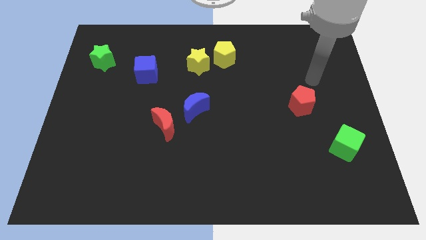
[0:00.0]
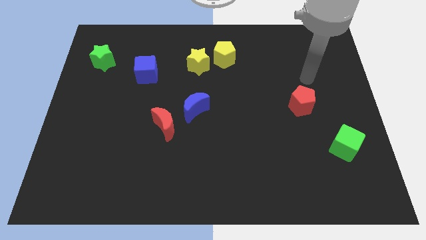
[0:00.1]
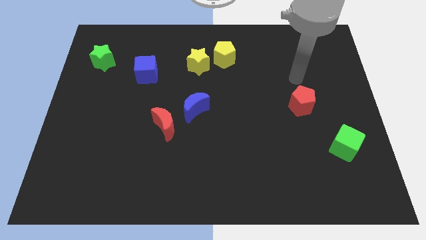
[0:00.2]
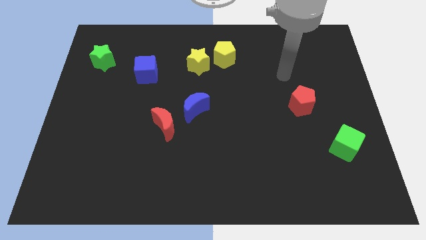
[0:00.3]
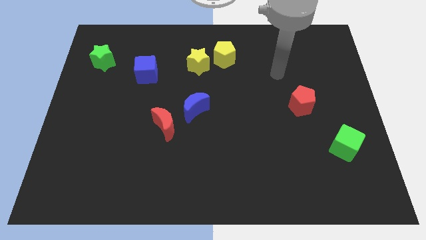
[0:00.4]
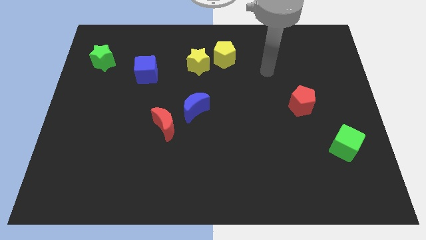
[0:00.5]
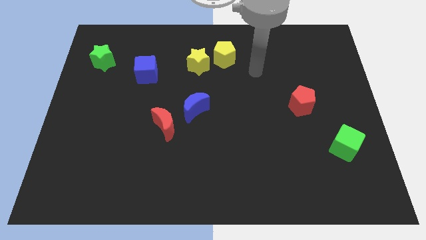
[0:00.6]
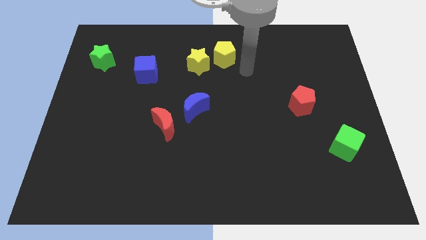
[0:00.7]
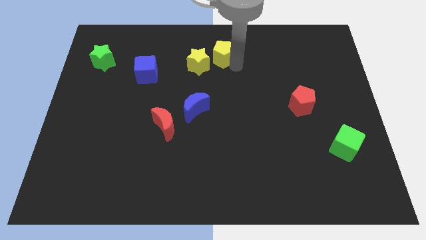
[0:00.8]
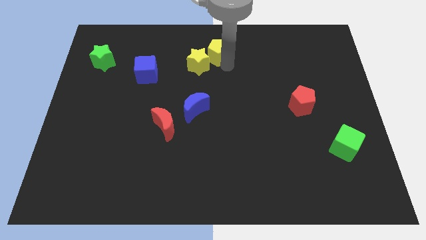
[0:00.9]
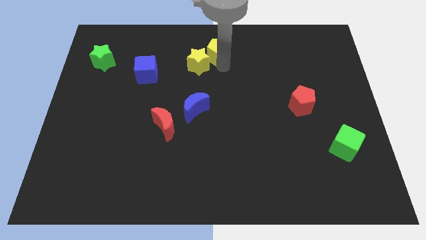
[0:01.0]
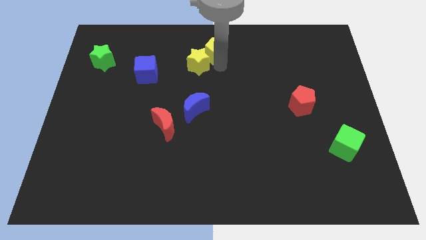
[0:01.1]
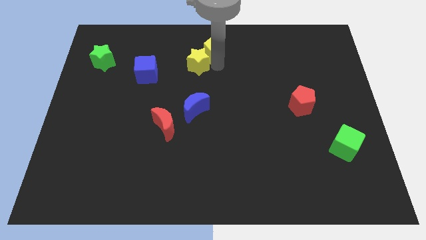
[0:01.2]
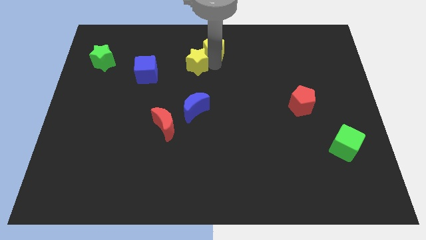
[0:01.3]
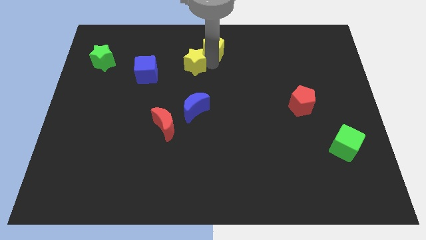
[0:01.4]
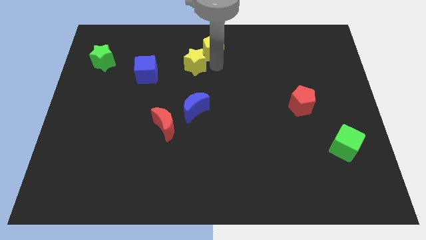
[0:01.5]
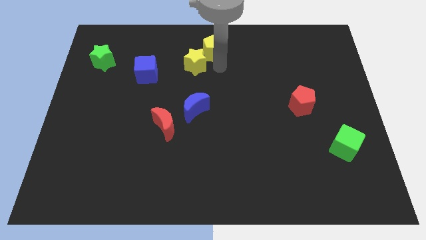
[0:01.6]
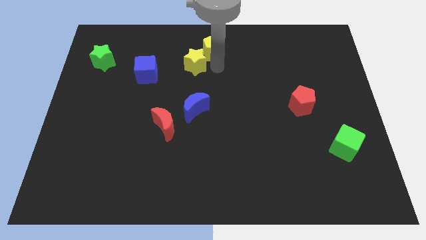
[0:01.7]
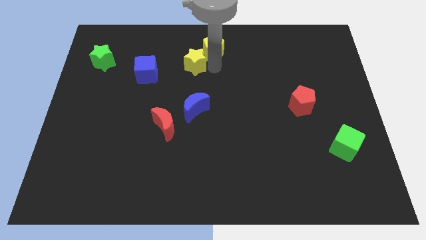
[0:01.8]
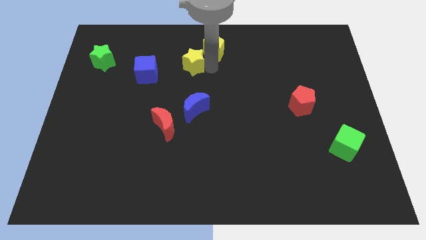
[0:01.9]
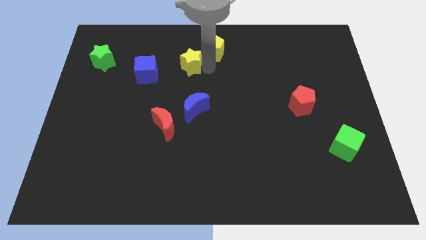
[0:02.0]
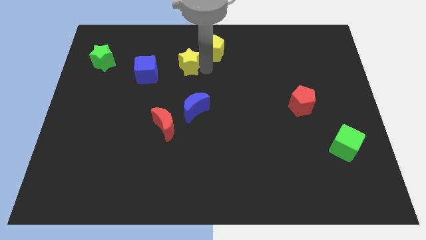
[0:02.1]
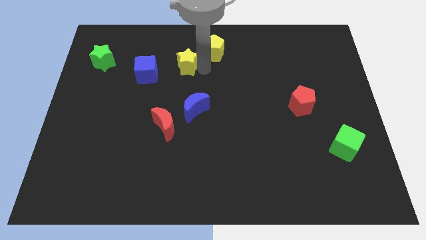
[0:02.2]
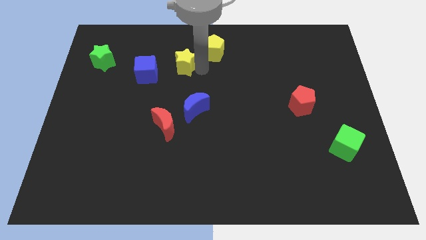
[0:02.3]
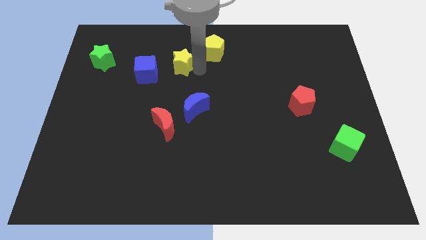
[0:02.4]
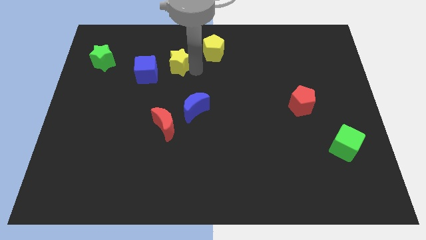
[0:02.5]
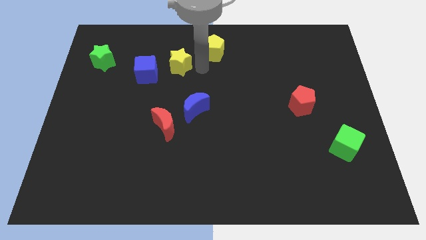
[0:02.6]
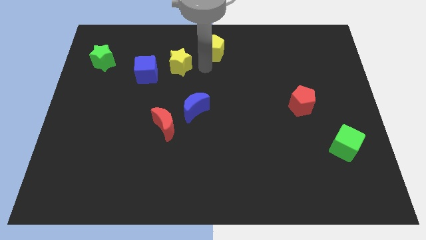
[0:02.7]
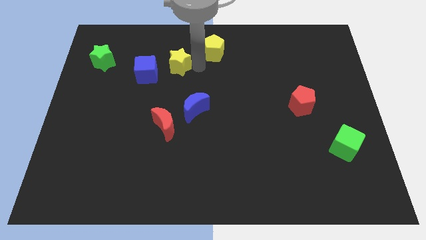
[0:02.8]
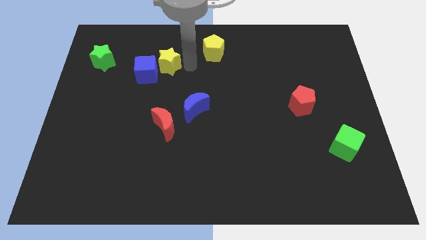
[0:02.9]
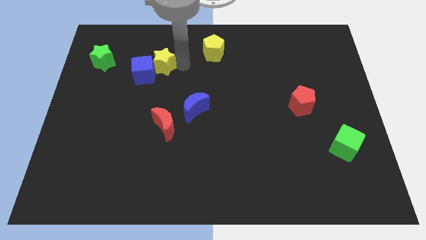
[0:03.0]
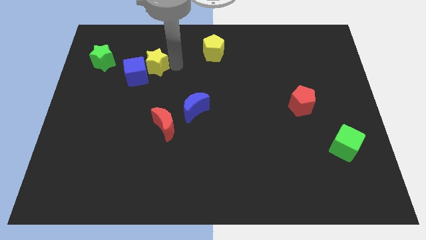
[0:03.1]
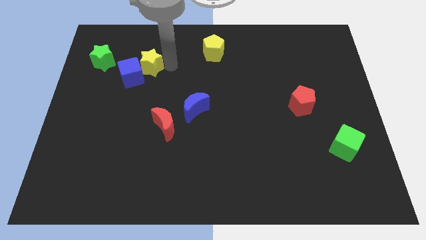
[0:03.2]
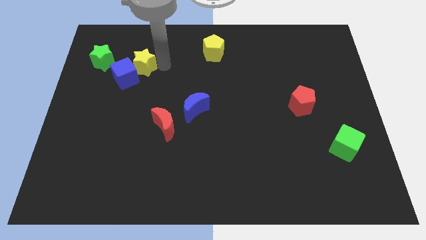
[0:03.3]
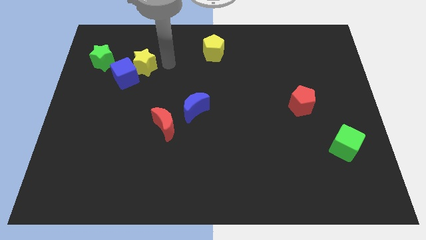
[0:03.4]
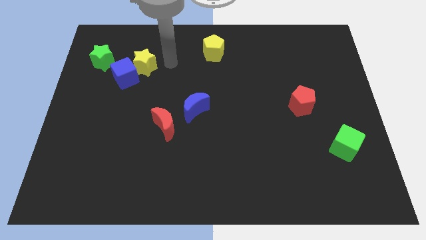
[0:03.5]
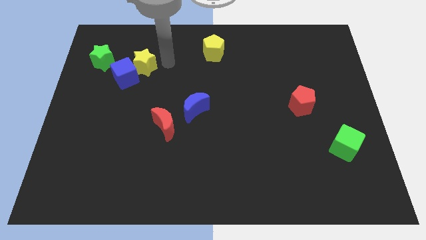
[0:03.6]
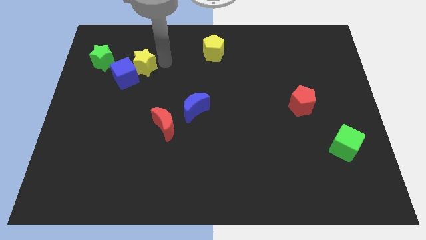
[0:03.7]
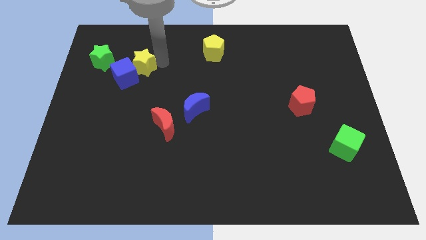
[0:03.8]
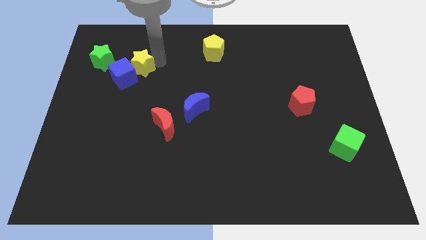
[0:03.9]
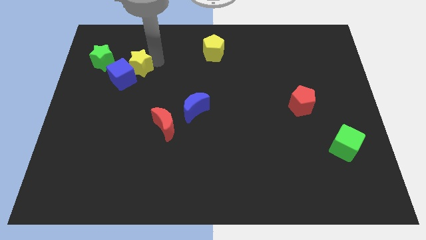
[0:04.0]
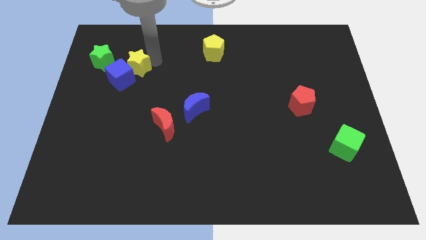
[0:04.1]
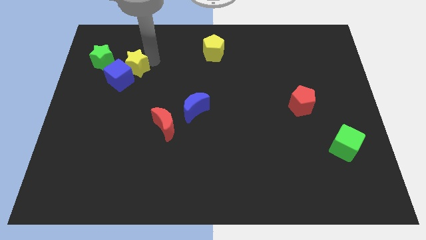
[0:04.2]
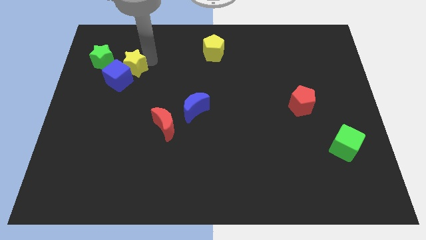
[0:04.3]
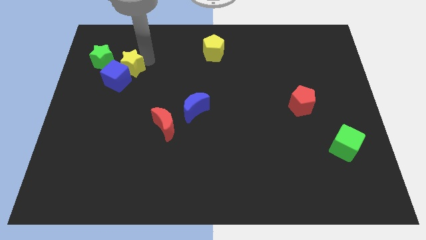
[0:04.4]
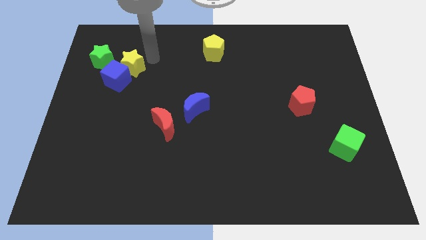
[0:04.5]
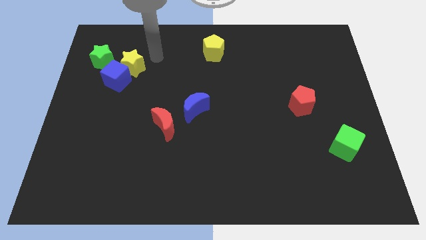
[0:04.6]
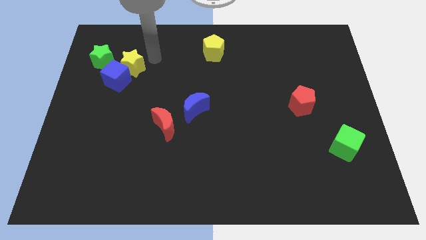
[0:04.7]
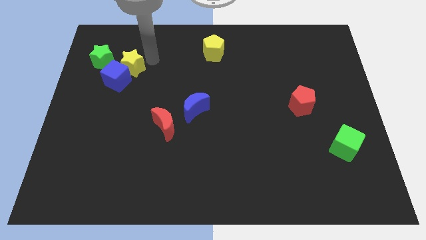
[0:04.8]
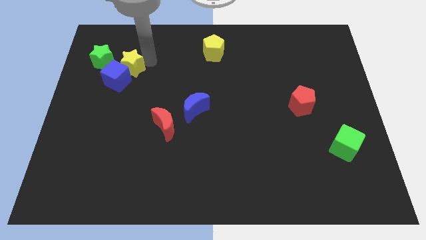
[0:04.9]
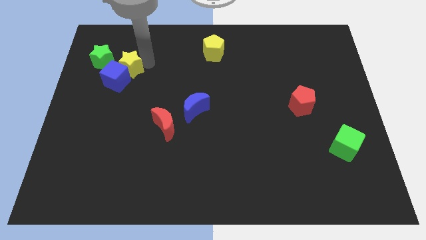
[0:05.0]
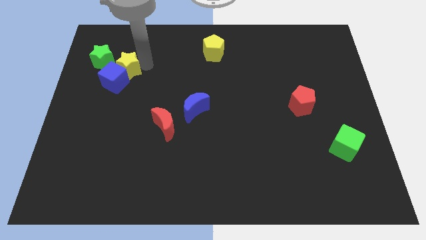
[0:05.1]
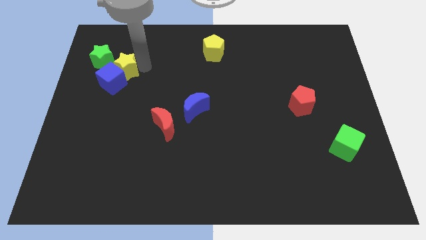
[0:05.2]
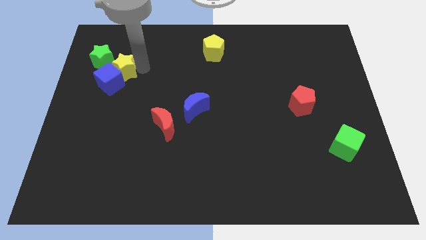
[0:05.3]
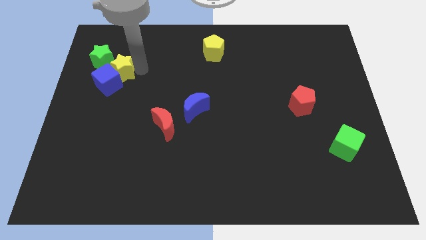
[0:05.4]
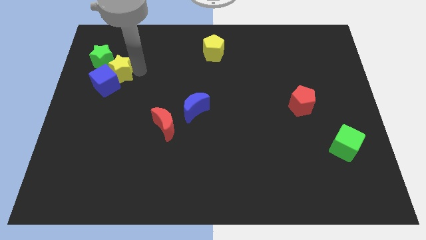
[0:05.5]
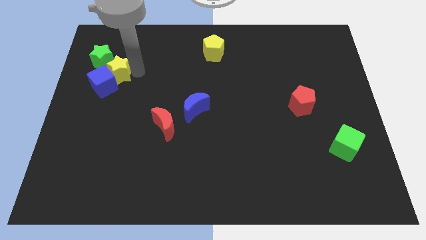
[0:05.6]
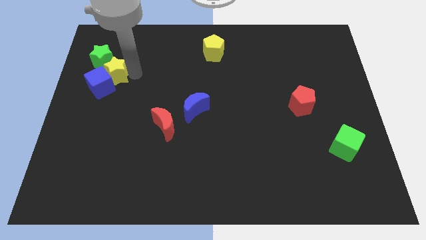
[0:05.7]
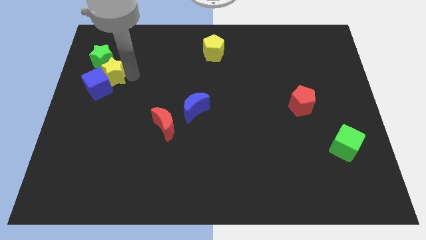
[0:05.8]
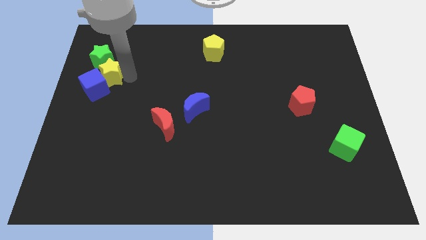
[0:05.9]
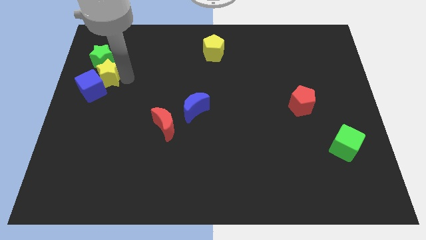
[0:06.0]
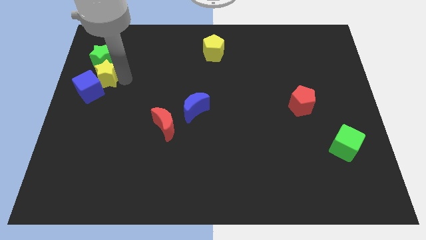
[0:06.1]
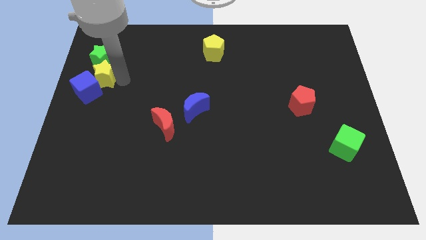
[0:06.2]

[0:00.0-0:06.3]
push the yellow star to the center left
